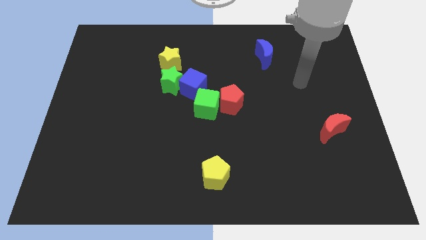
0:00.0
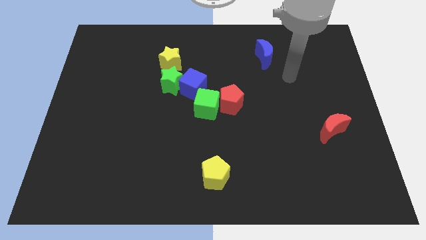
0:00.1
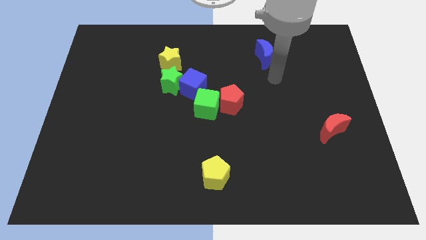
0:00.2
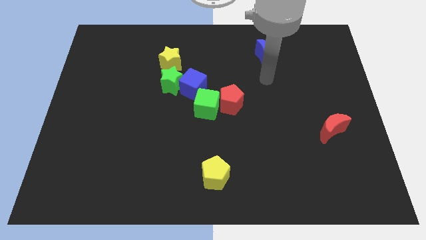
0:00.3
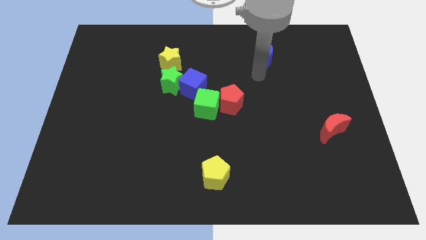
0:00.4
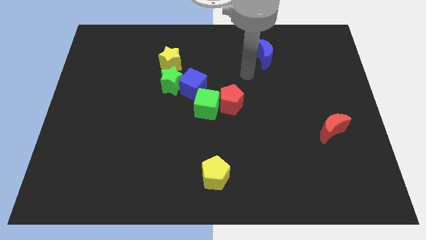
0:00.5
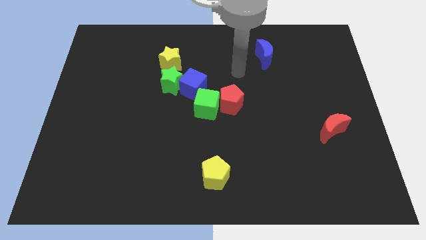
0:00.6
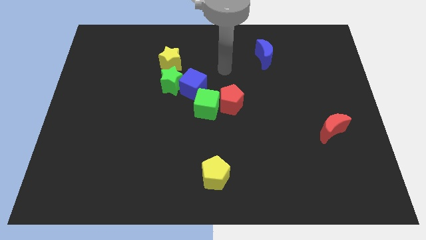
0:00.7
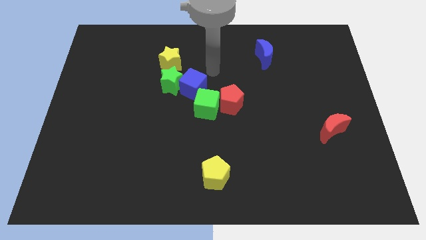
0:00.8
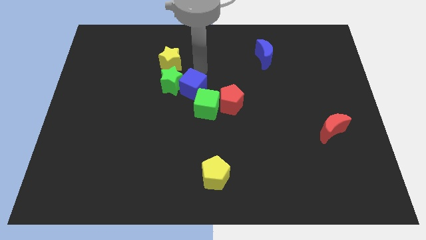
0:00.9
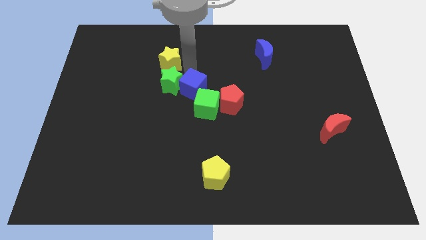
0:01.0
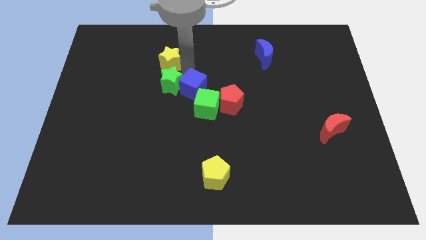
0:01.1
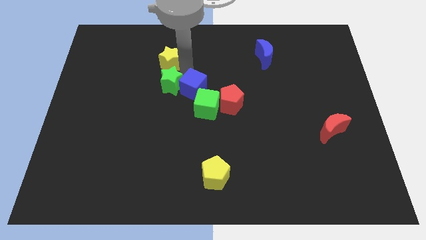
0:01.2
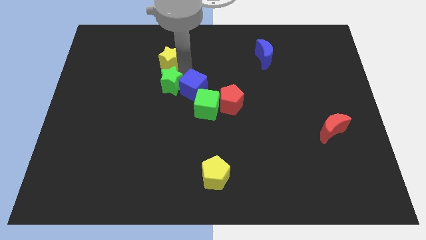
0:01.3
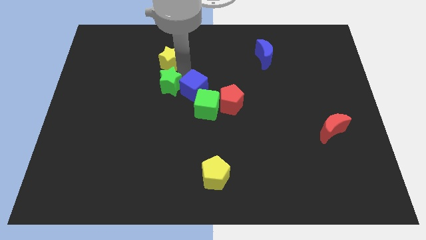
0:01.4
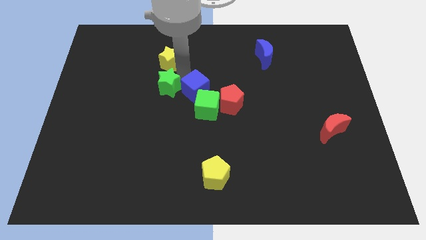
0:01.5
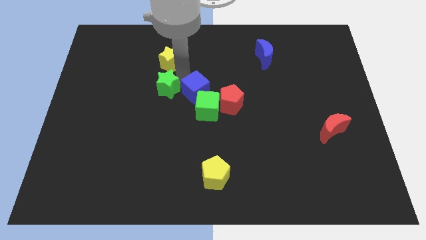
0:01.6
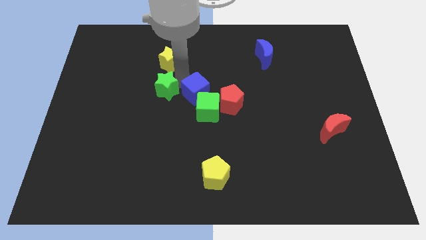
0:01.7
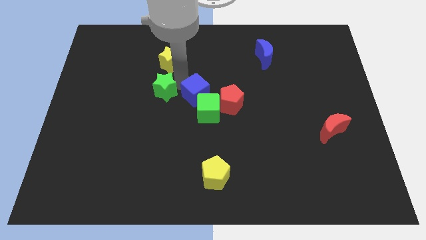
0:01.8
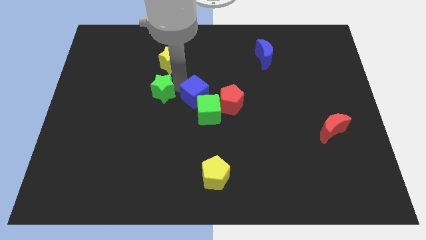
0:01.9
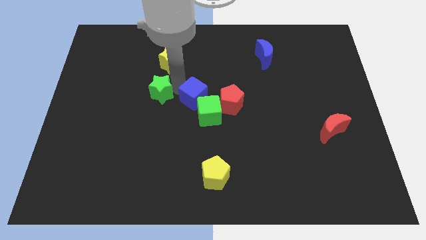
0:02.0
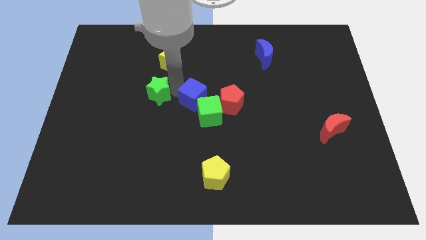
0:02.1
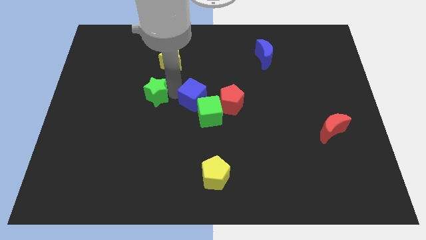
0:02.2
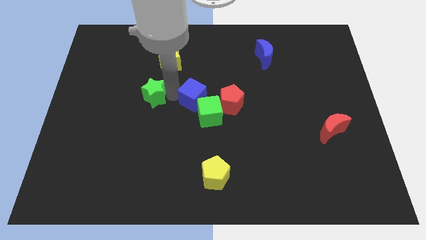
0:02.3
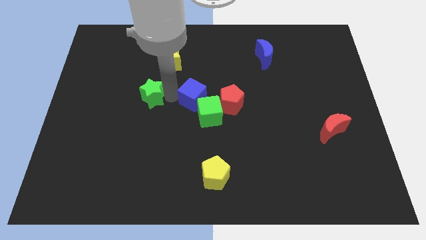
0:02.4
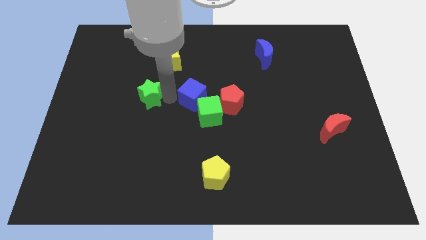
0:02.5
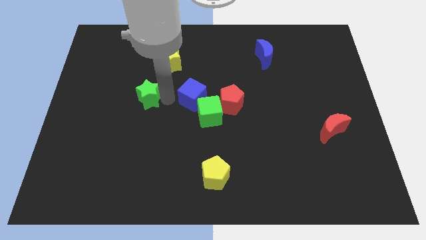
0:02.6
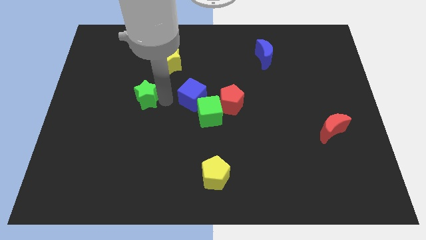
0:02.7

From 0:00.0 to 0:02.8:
move the green star away from the blue cube and yellow star

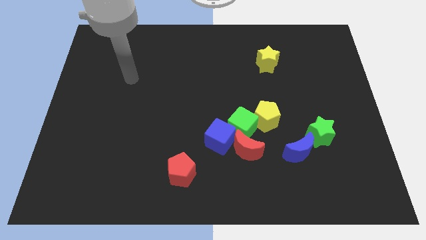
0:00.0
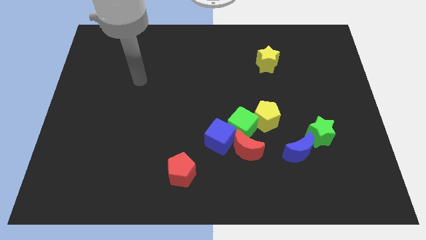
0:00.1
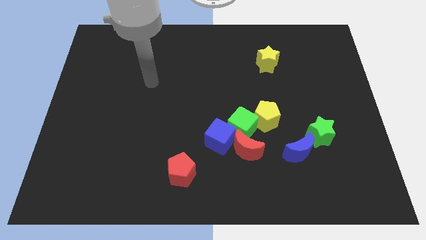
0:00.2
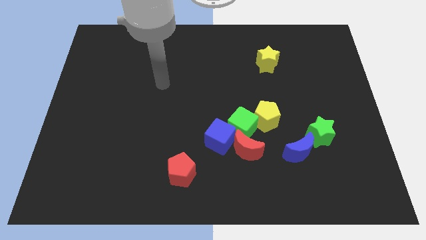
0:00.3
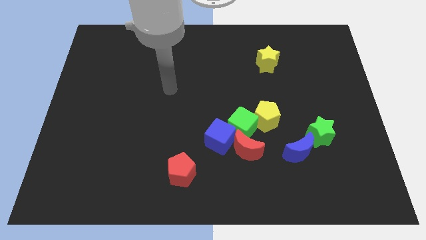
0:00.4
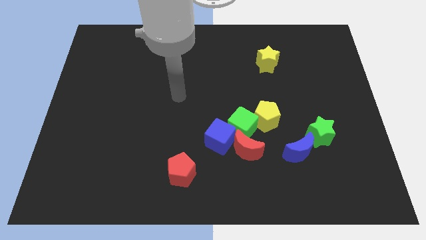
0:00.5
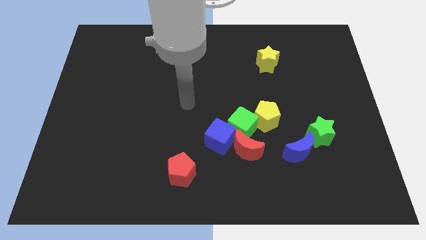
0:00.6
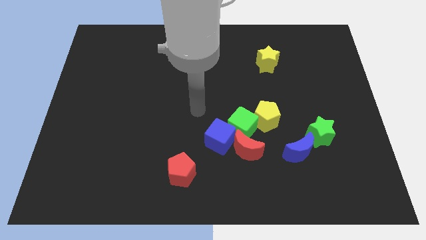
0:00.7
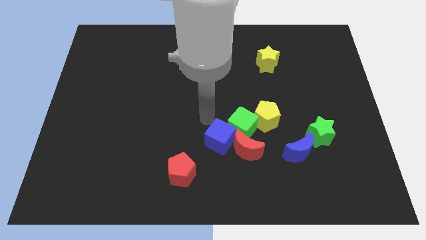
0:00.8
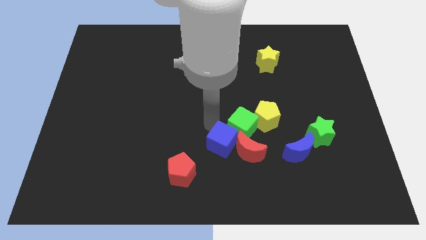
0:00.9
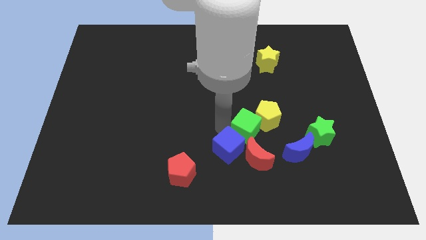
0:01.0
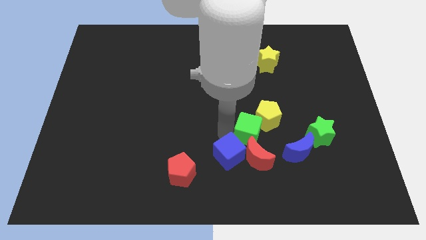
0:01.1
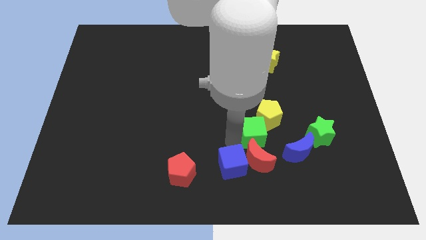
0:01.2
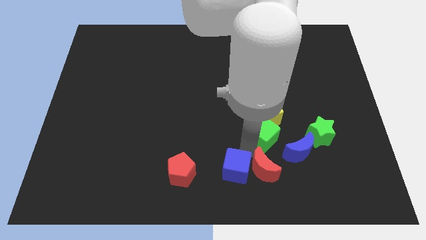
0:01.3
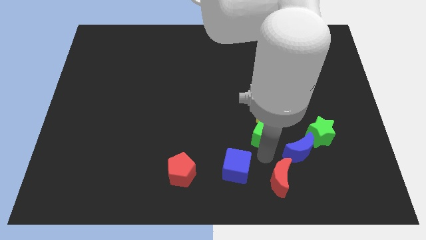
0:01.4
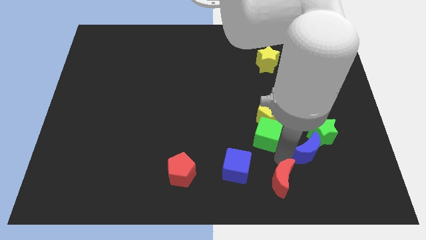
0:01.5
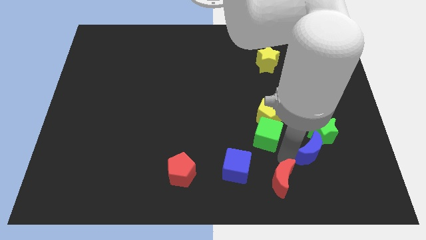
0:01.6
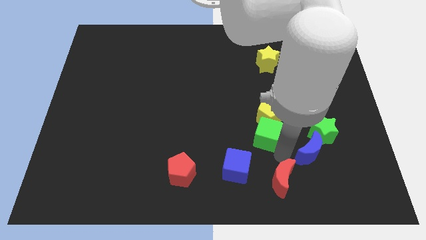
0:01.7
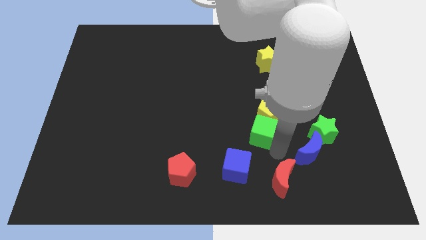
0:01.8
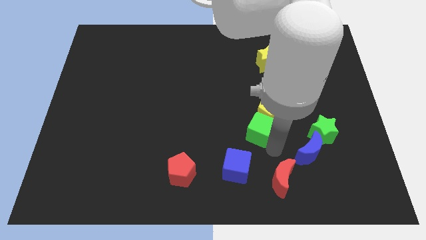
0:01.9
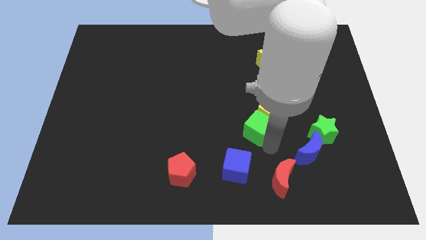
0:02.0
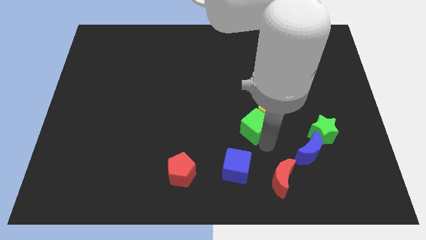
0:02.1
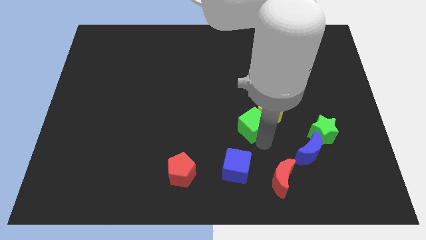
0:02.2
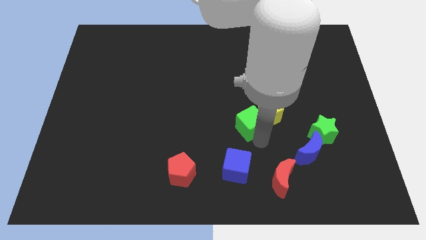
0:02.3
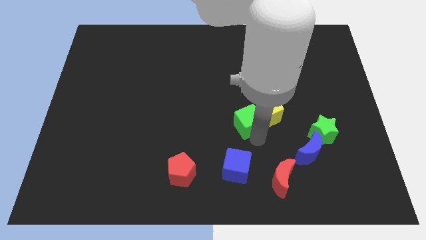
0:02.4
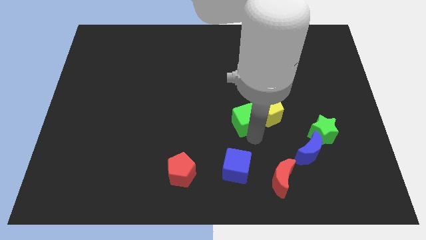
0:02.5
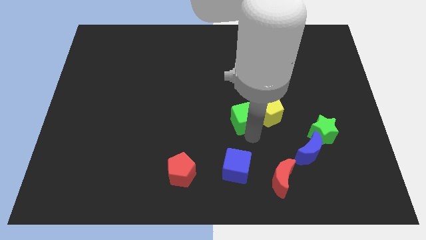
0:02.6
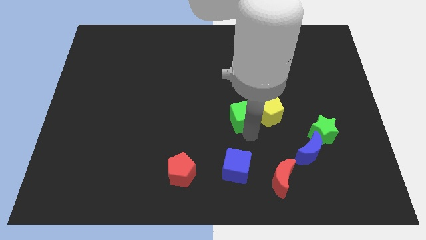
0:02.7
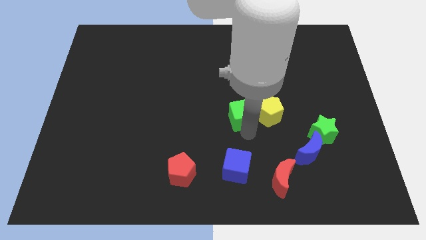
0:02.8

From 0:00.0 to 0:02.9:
separate the green cube from the yellow pentagon, red moon, and blue cube

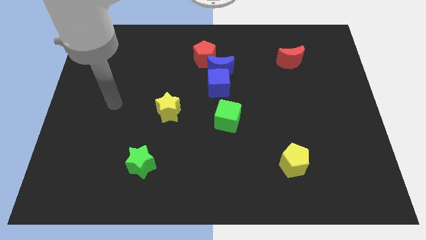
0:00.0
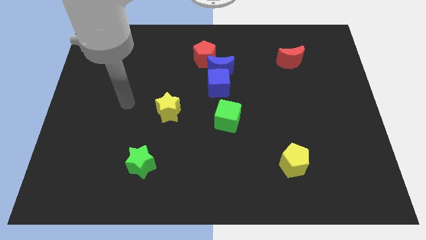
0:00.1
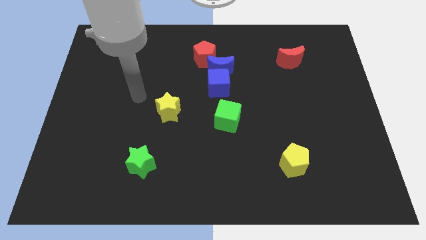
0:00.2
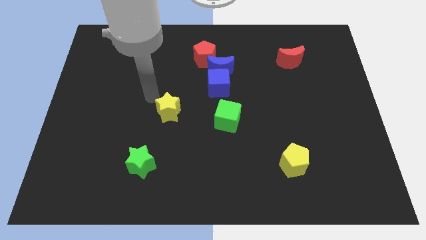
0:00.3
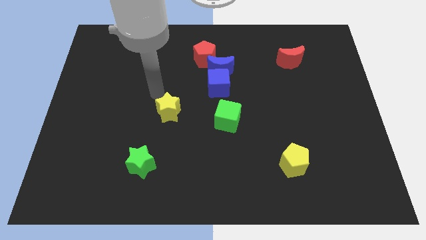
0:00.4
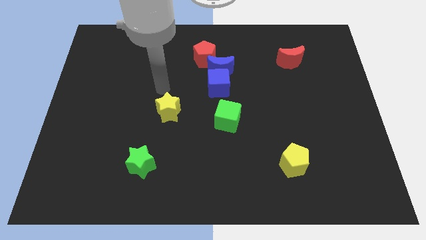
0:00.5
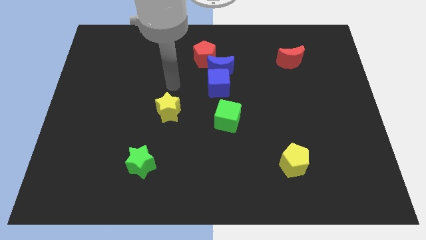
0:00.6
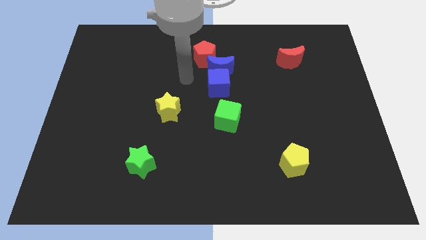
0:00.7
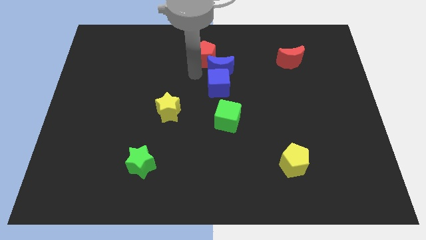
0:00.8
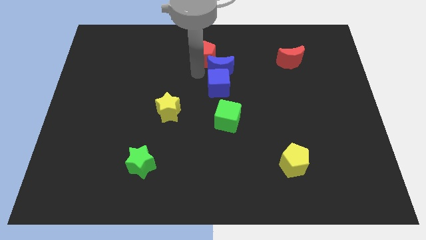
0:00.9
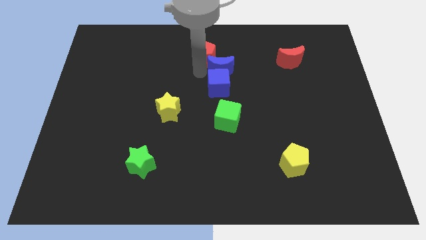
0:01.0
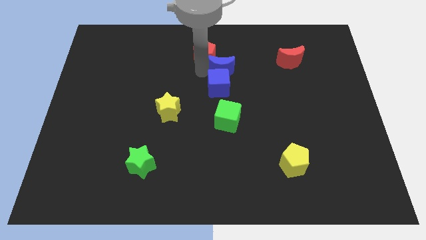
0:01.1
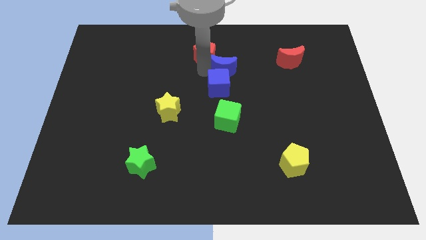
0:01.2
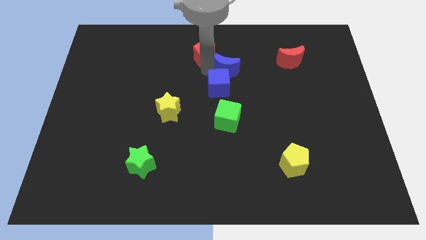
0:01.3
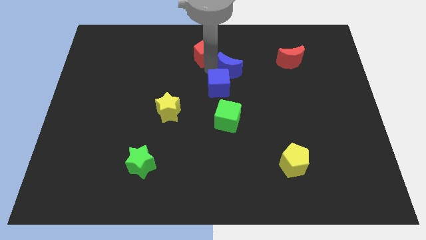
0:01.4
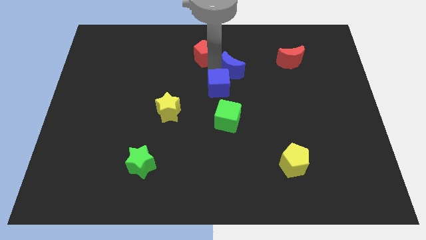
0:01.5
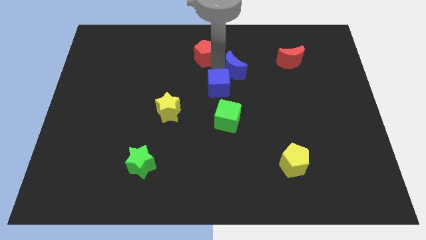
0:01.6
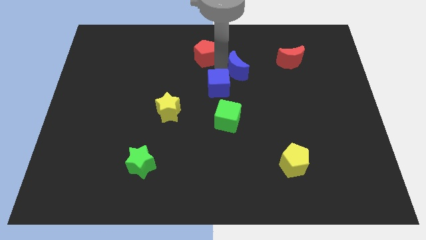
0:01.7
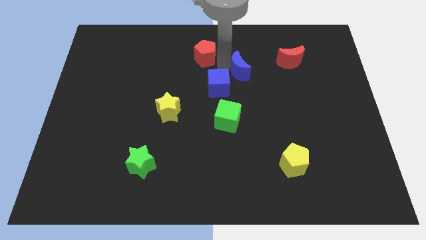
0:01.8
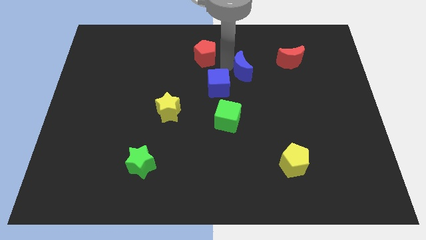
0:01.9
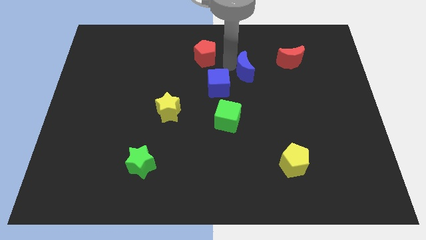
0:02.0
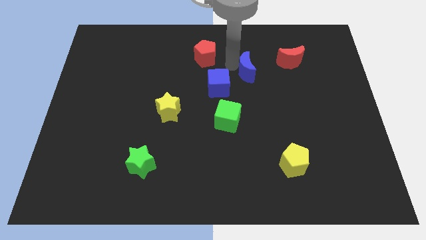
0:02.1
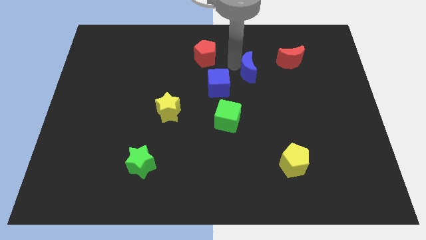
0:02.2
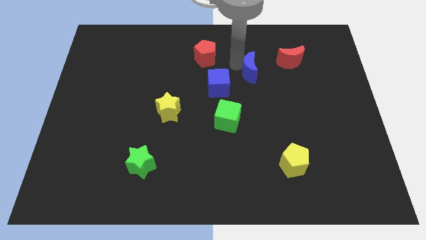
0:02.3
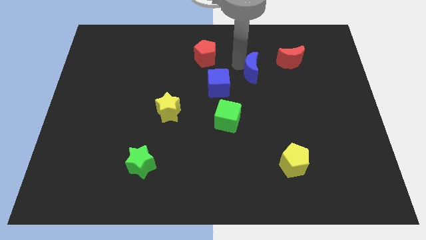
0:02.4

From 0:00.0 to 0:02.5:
move the blue moon away from the blue cube and red pentagon

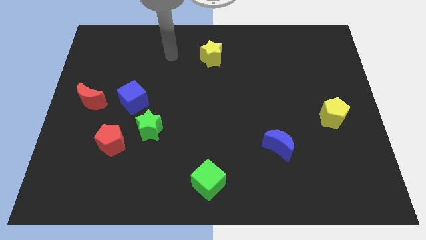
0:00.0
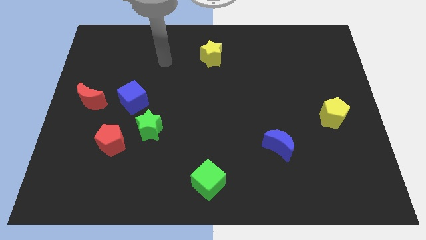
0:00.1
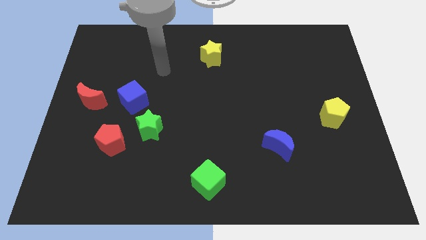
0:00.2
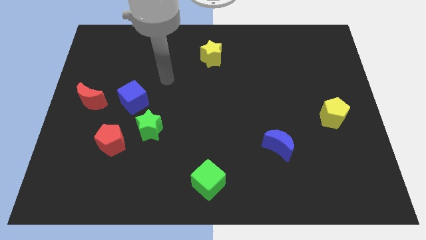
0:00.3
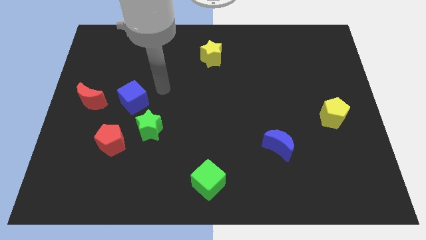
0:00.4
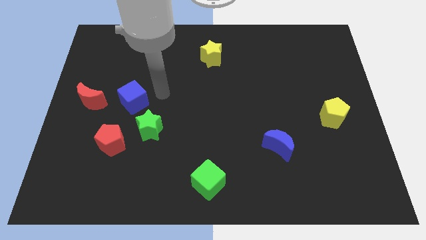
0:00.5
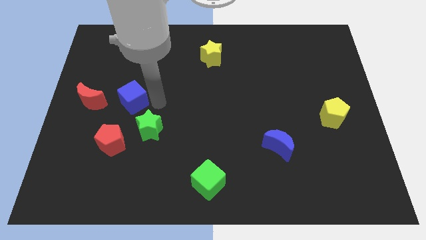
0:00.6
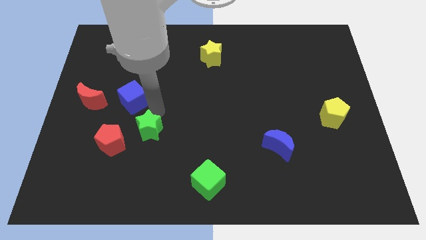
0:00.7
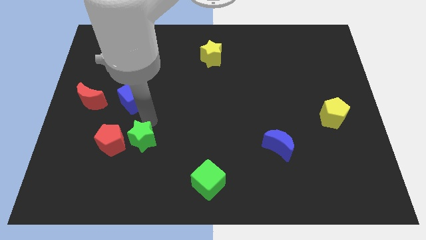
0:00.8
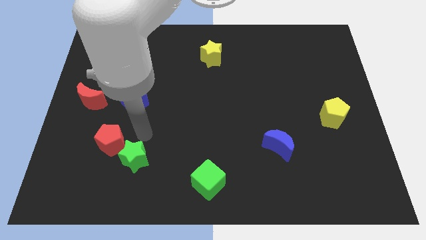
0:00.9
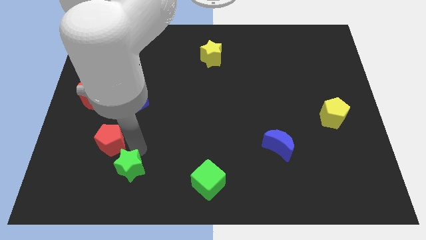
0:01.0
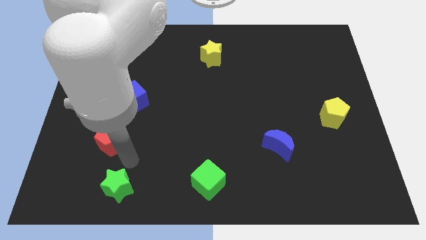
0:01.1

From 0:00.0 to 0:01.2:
pull the red pentagon apart from the green star

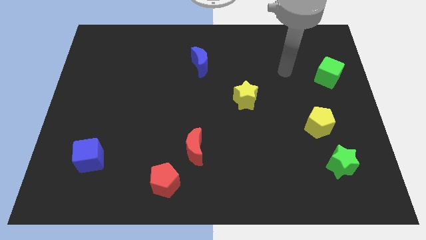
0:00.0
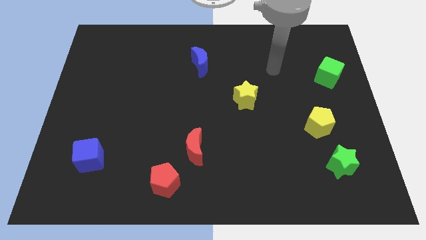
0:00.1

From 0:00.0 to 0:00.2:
move the red moon away from the red pentagon
